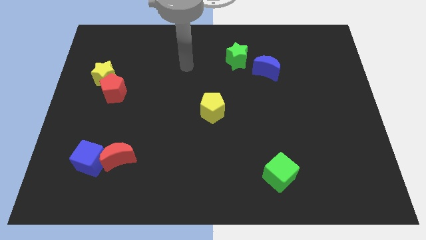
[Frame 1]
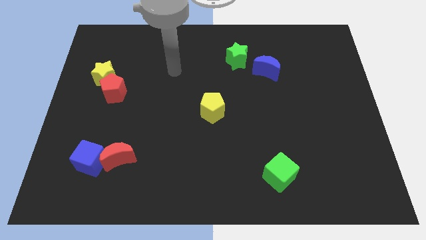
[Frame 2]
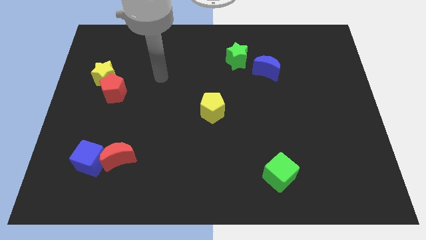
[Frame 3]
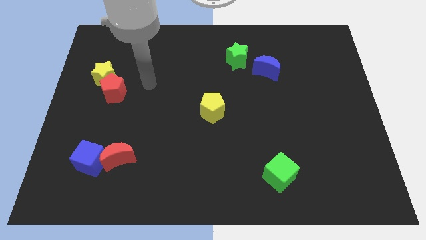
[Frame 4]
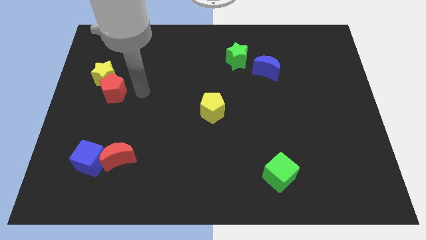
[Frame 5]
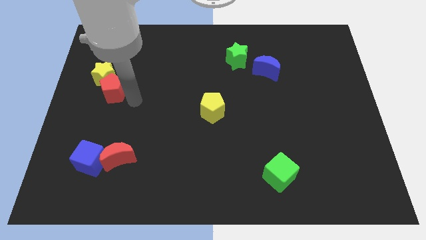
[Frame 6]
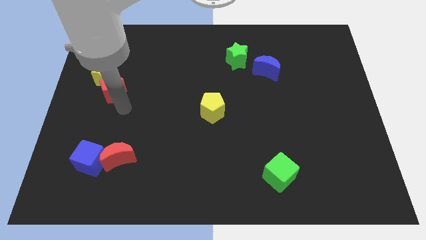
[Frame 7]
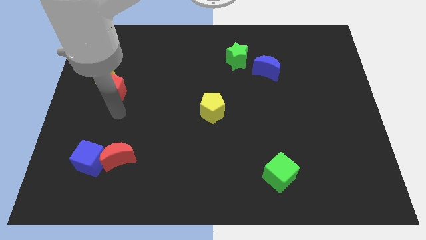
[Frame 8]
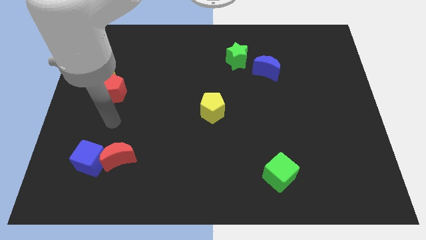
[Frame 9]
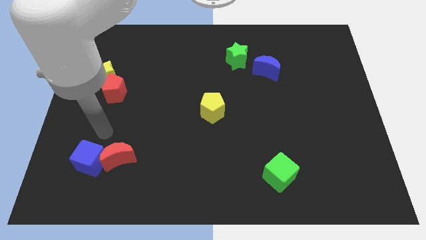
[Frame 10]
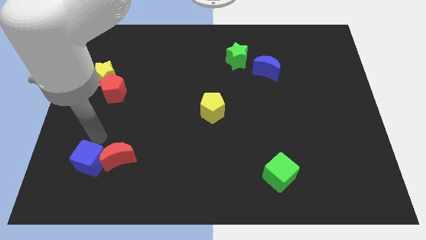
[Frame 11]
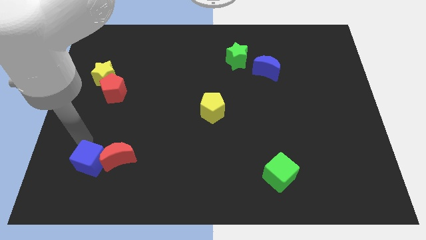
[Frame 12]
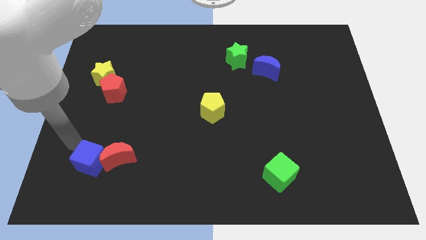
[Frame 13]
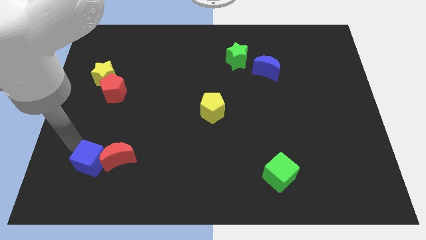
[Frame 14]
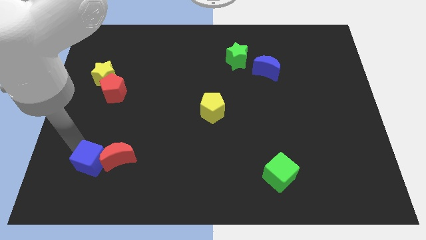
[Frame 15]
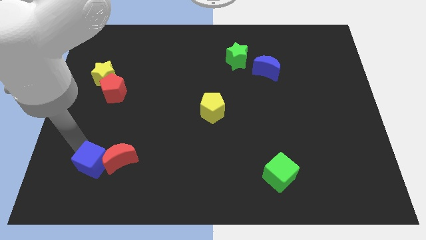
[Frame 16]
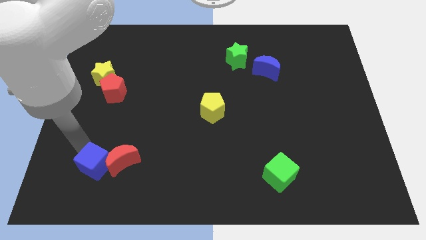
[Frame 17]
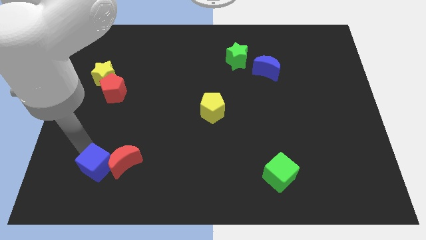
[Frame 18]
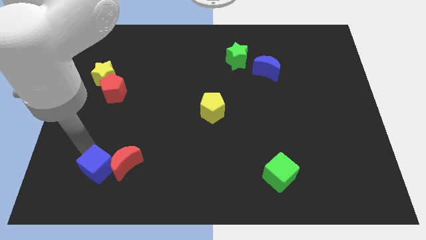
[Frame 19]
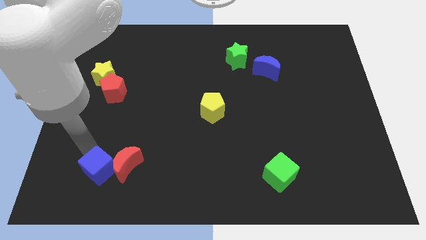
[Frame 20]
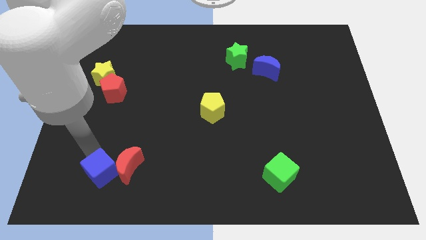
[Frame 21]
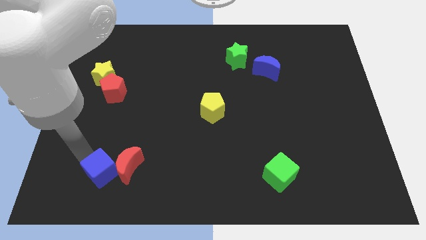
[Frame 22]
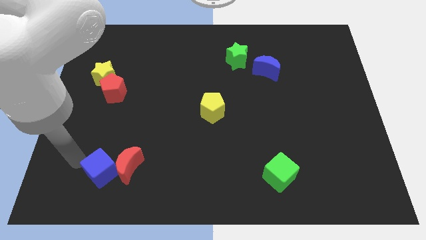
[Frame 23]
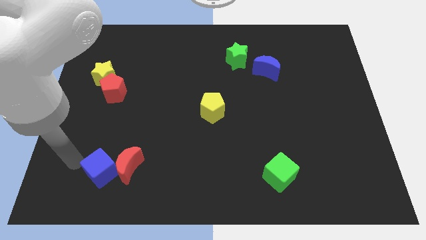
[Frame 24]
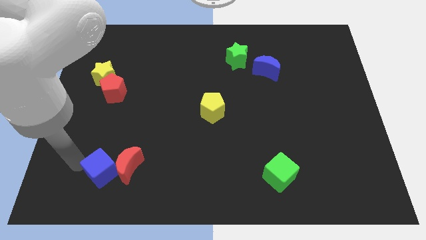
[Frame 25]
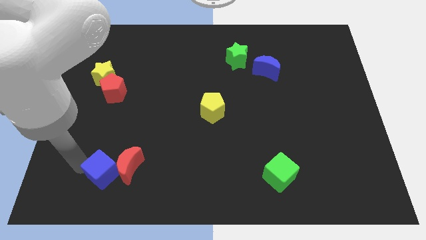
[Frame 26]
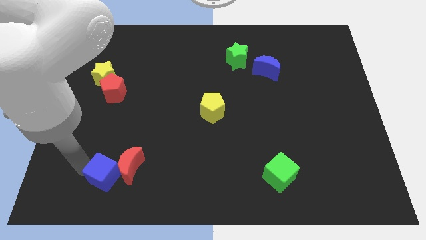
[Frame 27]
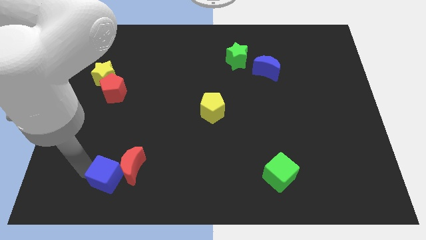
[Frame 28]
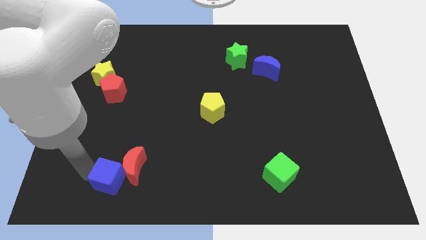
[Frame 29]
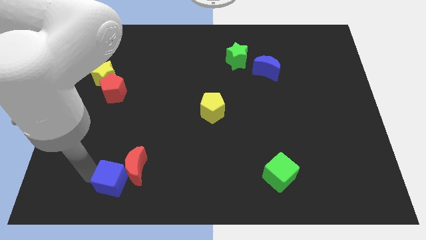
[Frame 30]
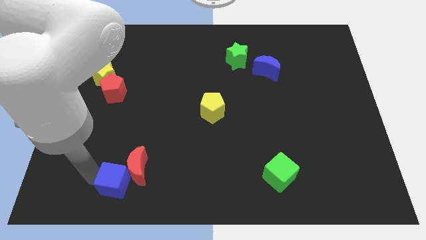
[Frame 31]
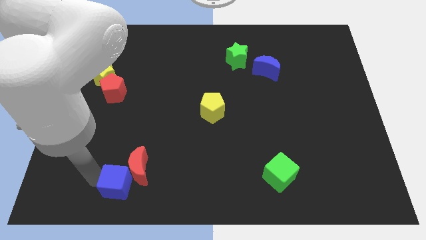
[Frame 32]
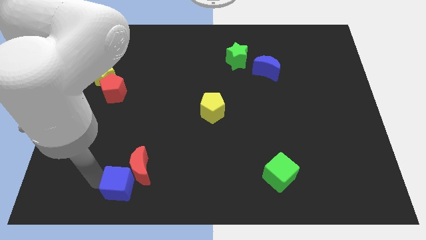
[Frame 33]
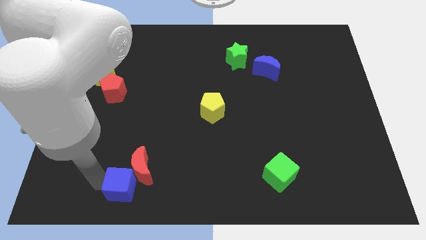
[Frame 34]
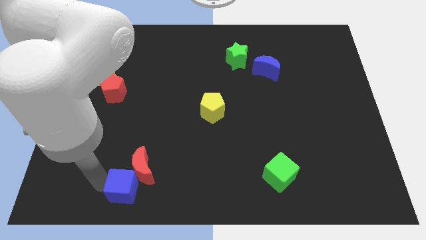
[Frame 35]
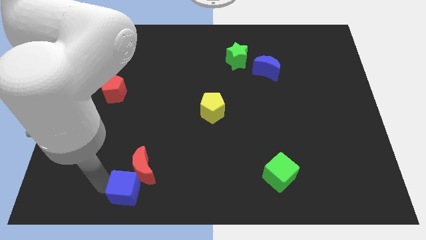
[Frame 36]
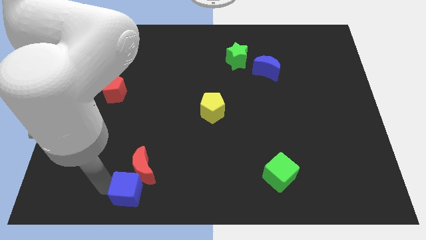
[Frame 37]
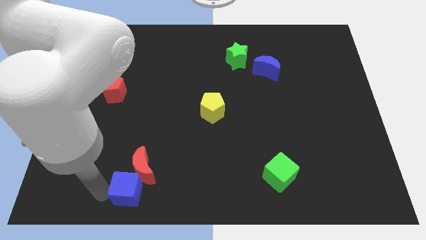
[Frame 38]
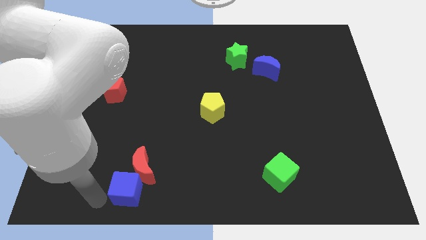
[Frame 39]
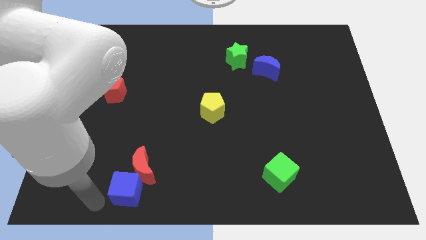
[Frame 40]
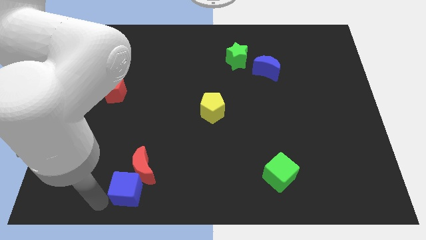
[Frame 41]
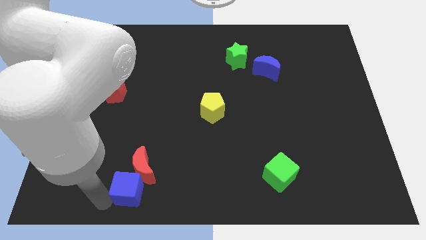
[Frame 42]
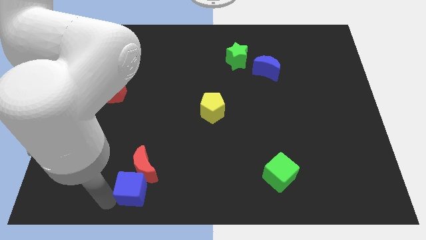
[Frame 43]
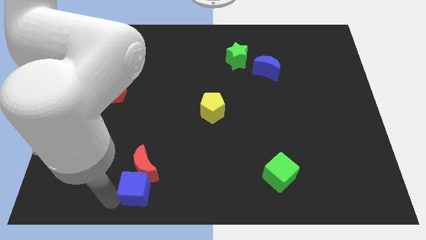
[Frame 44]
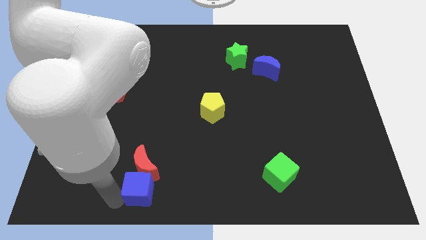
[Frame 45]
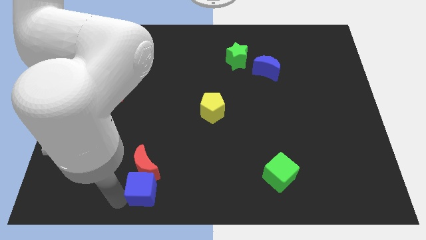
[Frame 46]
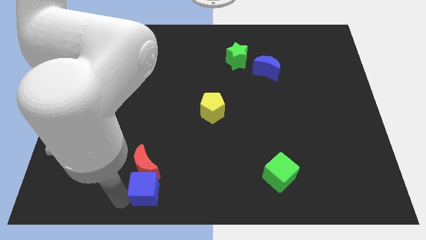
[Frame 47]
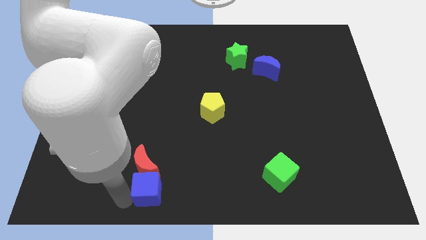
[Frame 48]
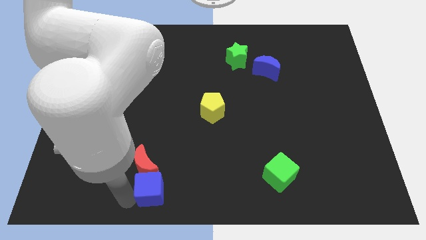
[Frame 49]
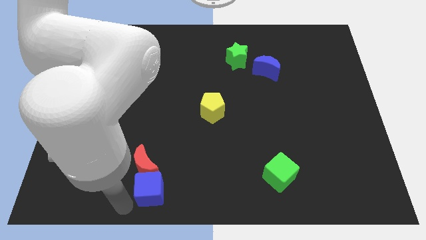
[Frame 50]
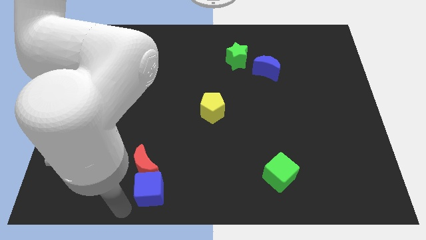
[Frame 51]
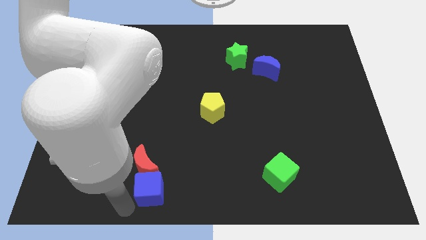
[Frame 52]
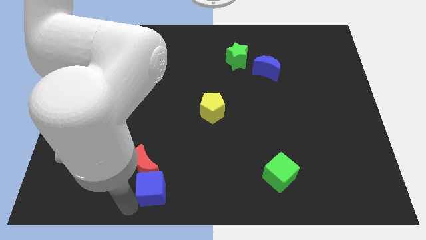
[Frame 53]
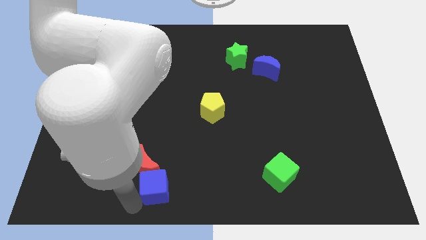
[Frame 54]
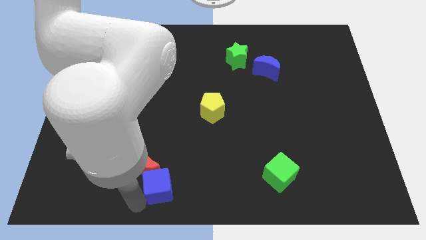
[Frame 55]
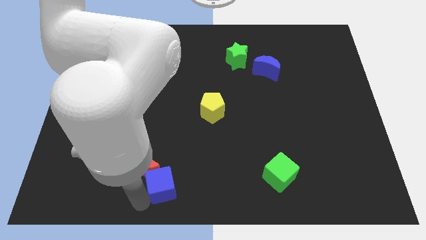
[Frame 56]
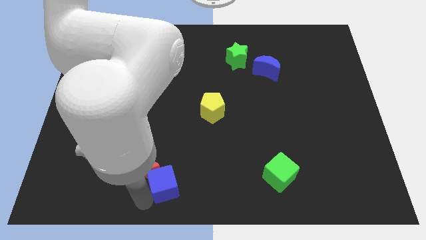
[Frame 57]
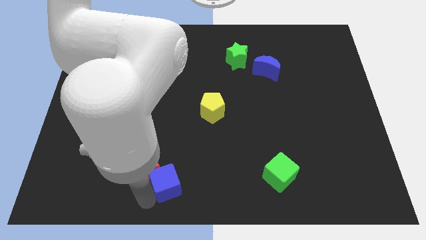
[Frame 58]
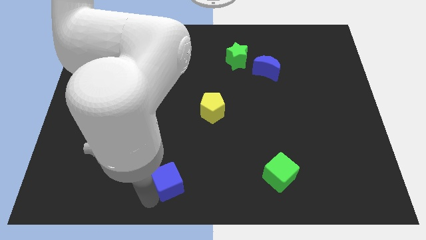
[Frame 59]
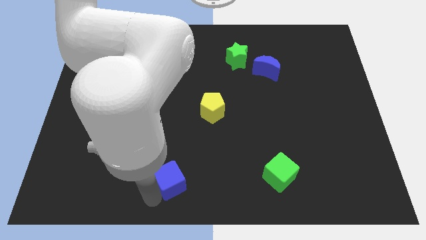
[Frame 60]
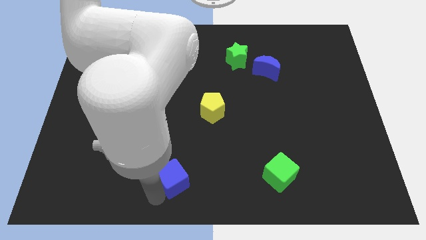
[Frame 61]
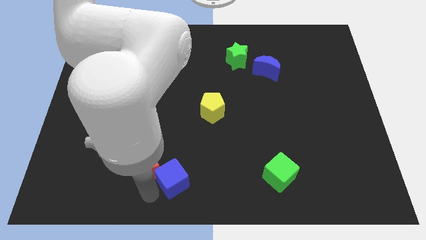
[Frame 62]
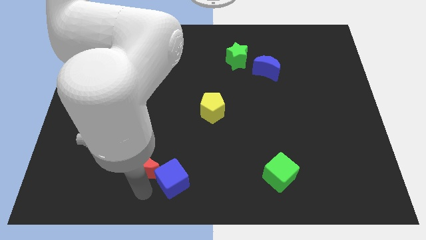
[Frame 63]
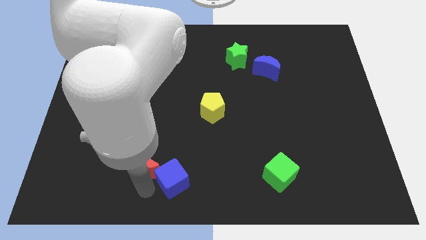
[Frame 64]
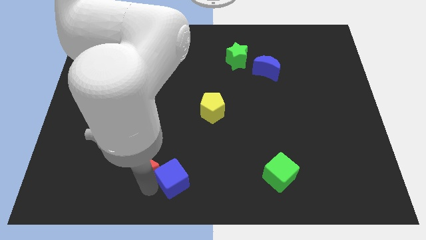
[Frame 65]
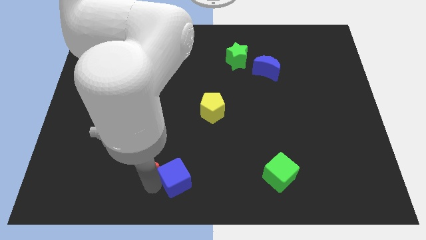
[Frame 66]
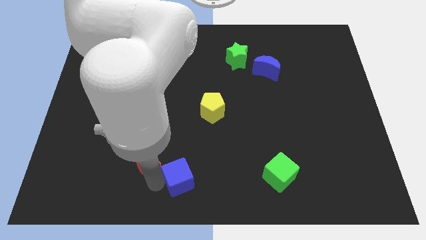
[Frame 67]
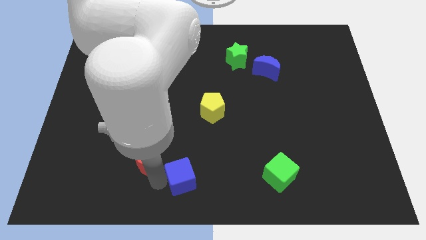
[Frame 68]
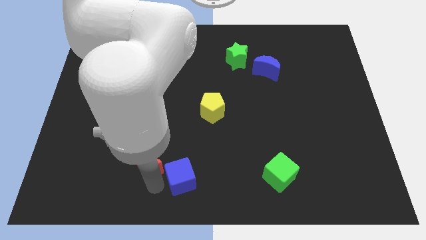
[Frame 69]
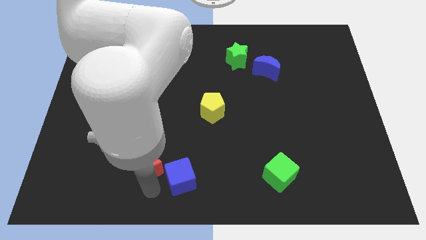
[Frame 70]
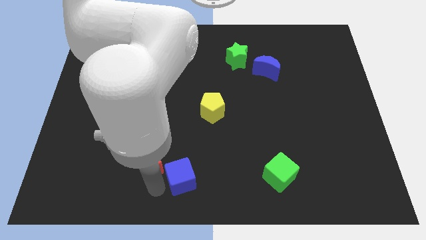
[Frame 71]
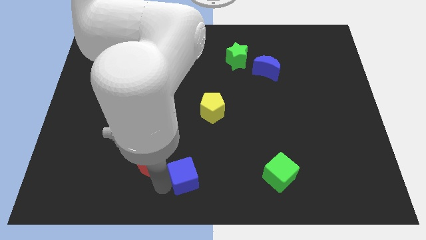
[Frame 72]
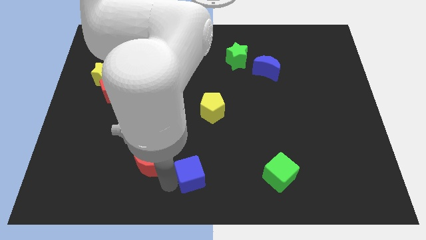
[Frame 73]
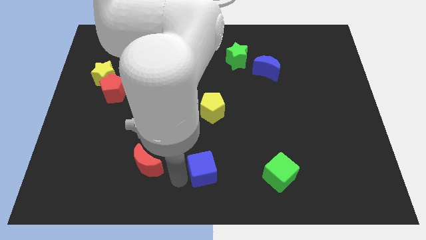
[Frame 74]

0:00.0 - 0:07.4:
put the blue cube to the left side of the green cube

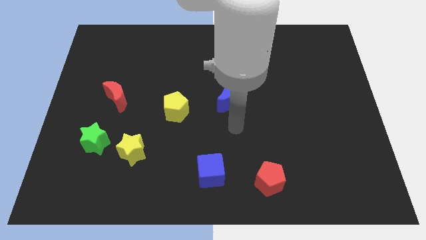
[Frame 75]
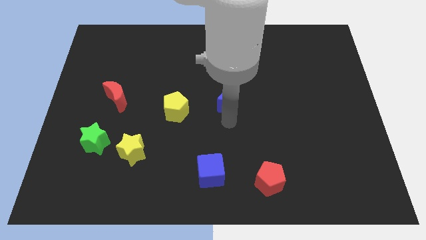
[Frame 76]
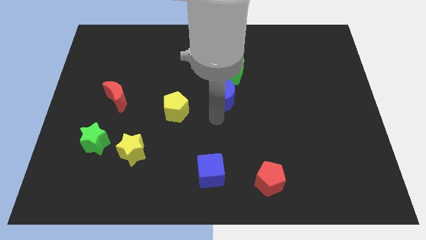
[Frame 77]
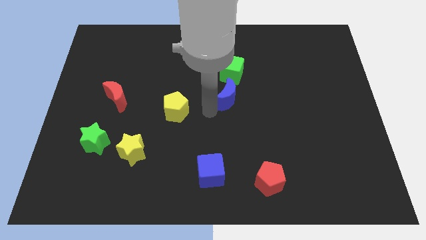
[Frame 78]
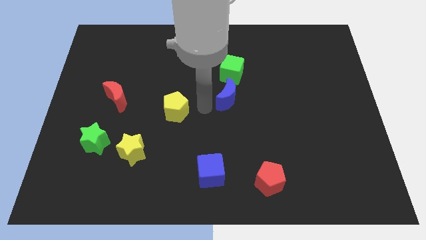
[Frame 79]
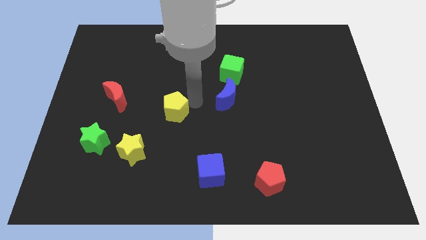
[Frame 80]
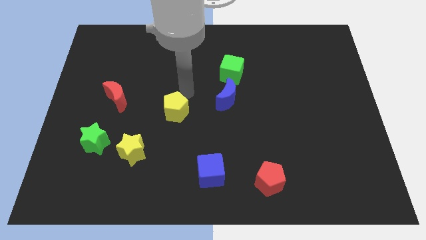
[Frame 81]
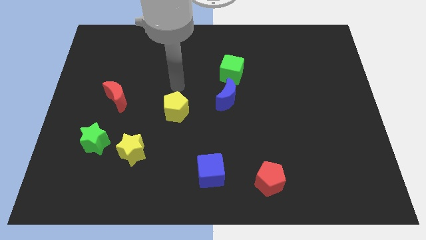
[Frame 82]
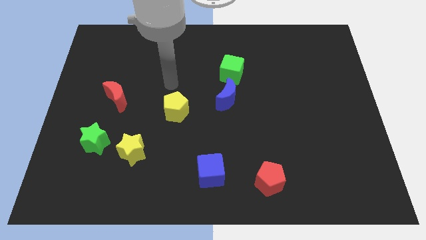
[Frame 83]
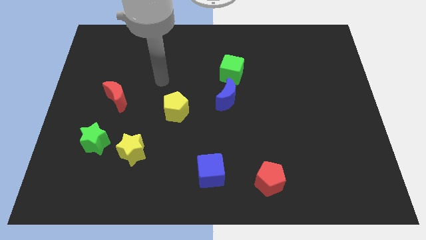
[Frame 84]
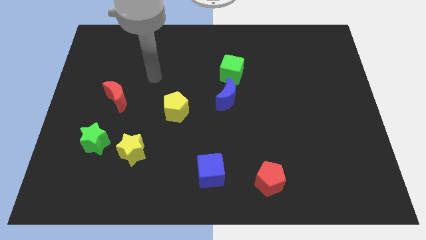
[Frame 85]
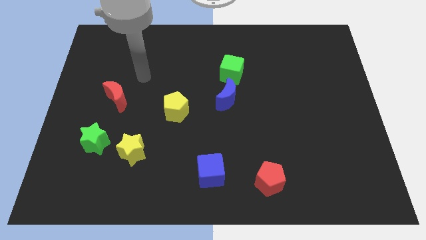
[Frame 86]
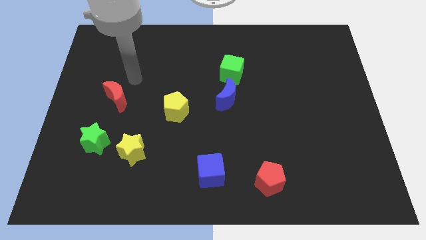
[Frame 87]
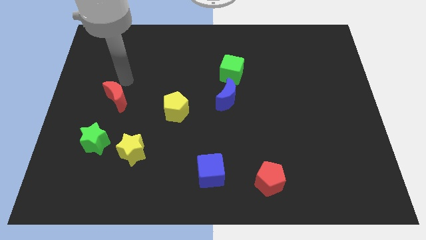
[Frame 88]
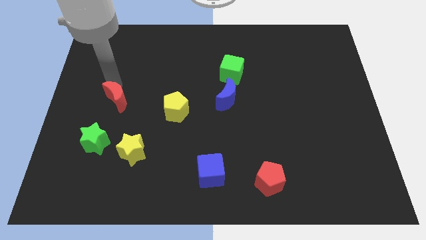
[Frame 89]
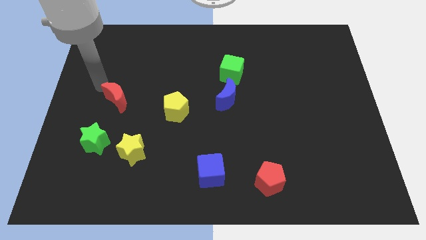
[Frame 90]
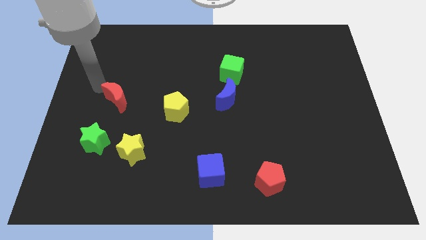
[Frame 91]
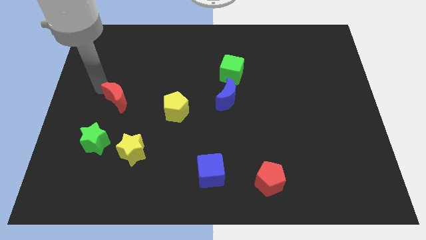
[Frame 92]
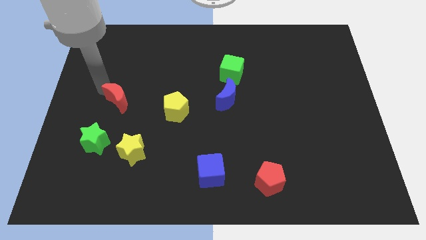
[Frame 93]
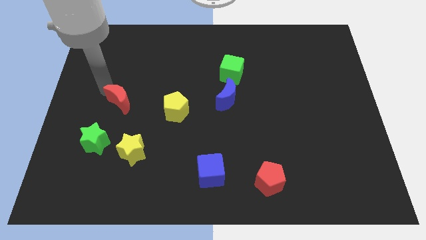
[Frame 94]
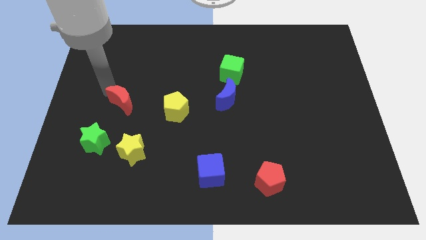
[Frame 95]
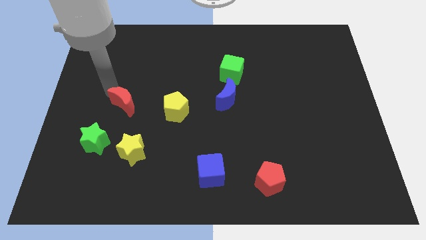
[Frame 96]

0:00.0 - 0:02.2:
move the red moon to the top of the yellow star
